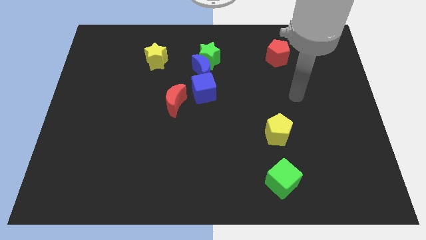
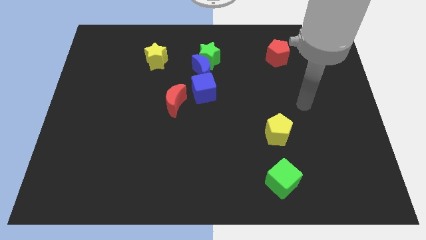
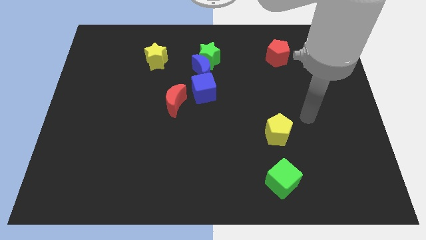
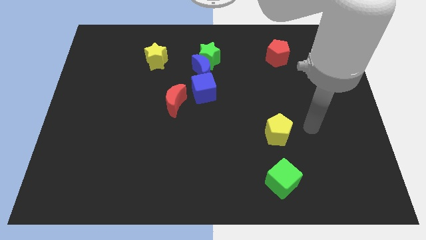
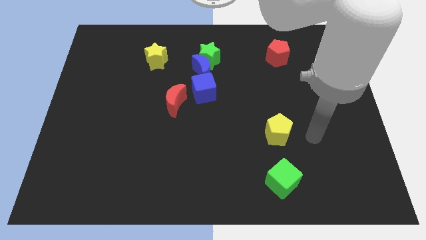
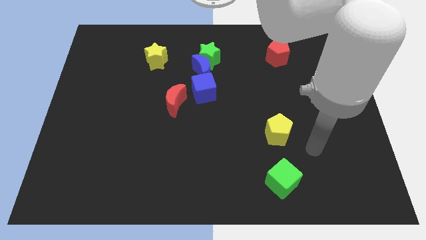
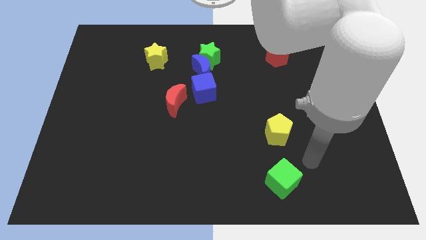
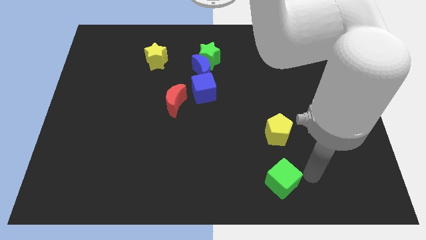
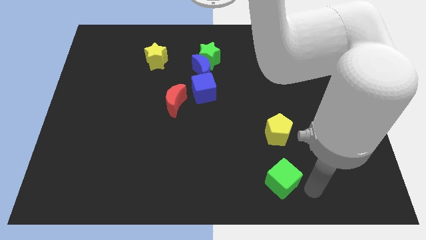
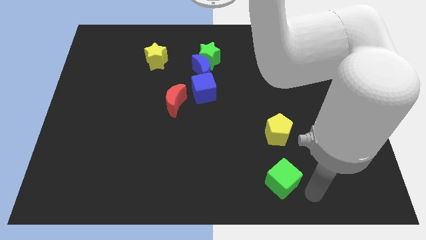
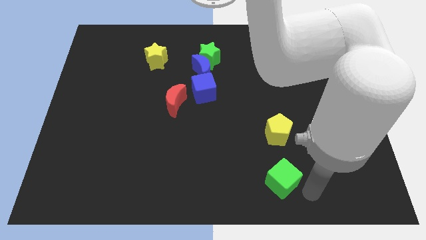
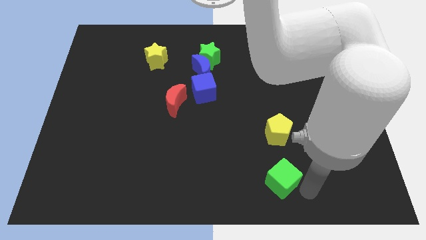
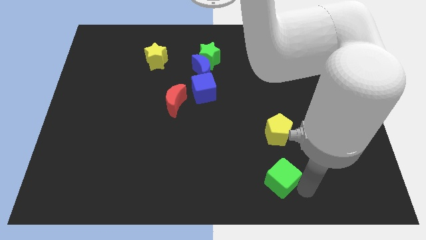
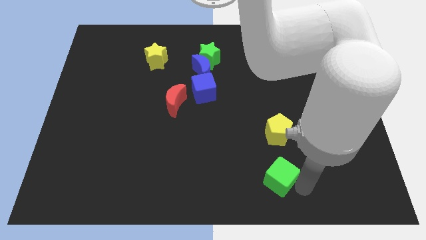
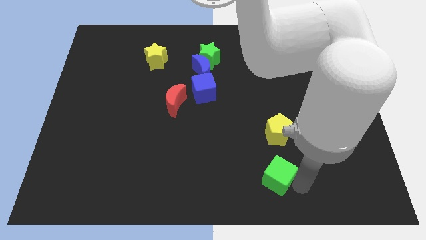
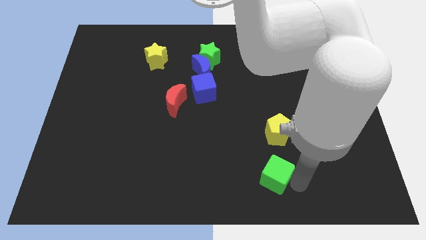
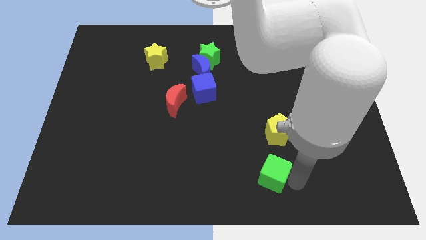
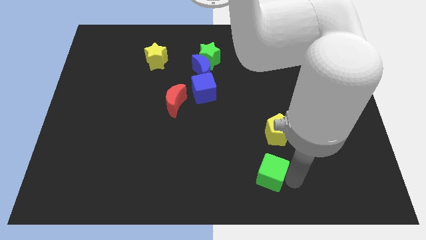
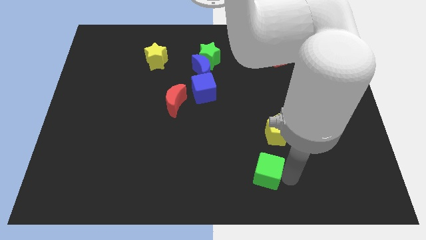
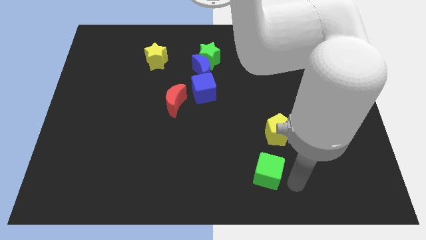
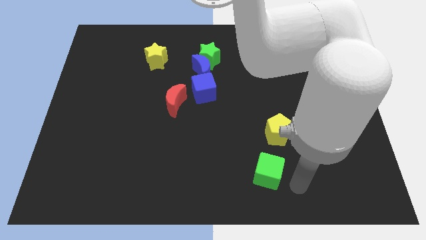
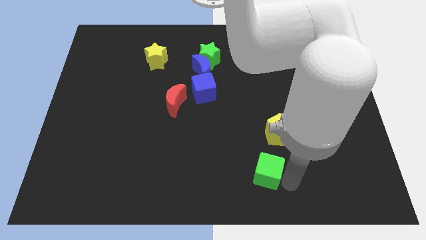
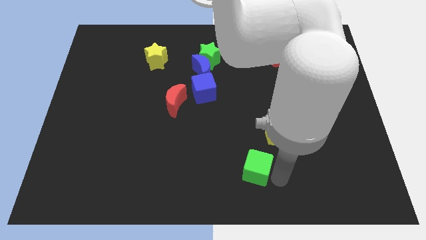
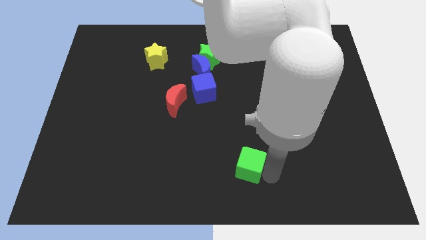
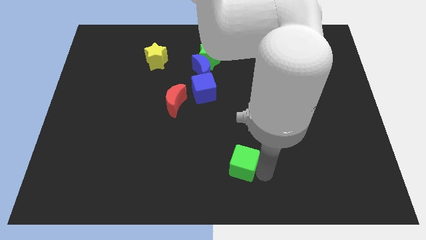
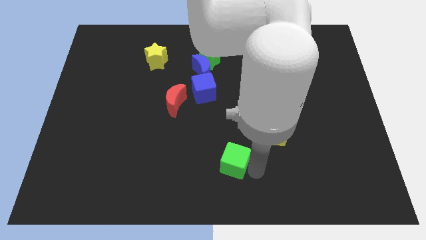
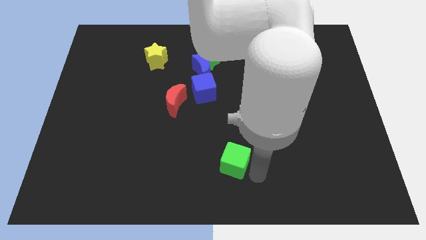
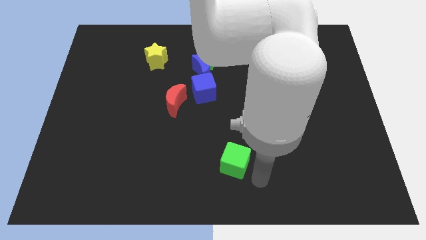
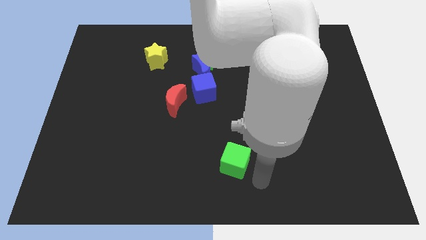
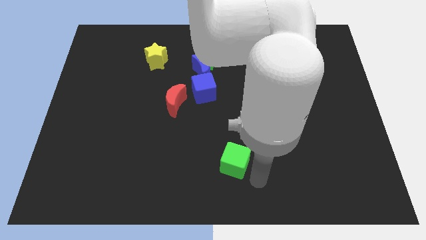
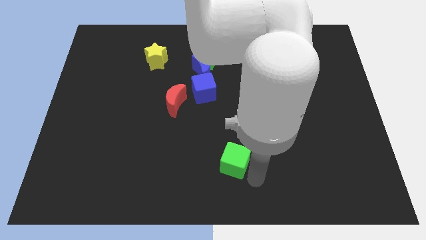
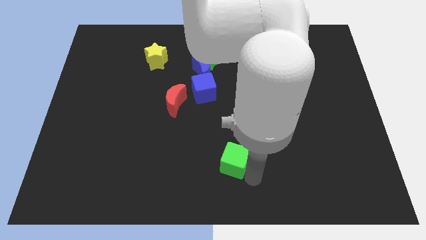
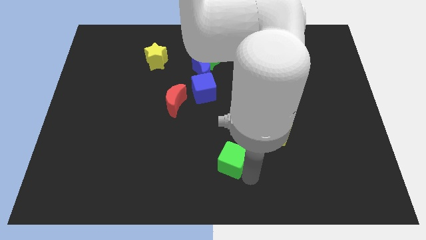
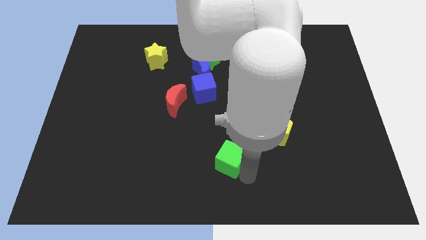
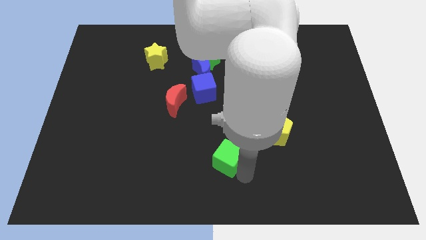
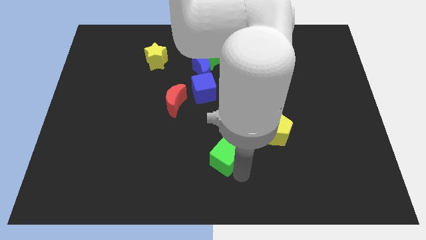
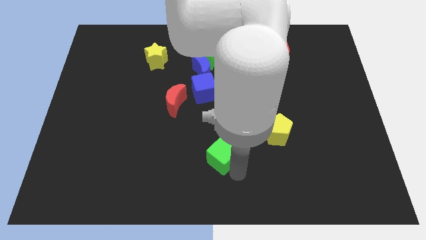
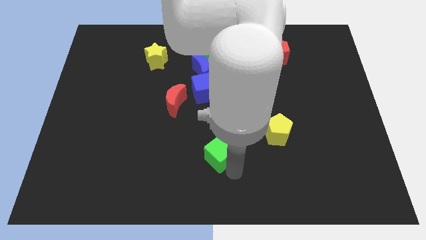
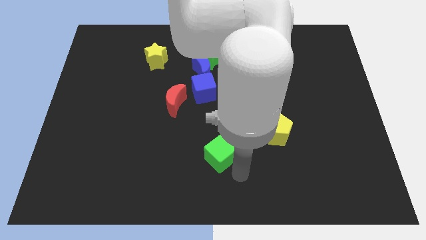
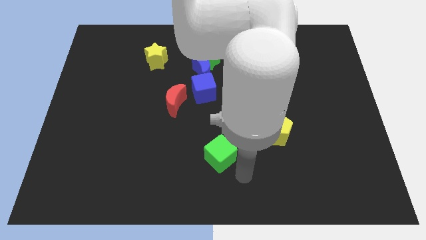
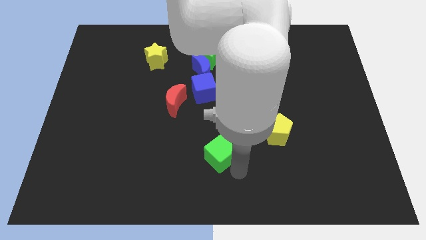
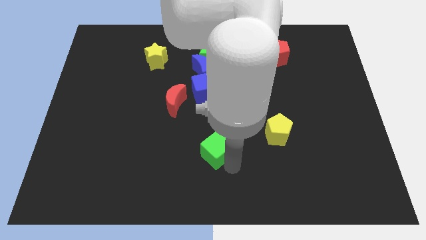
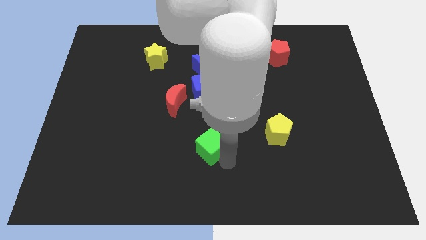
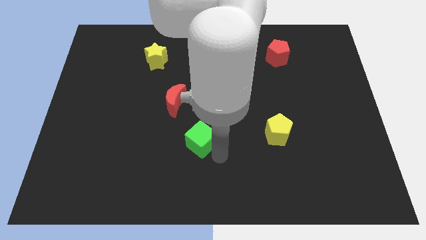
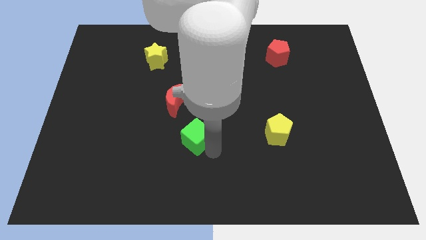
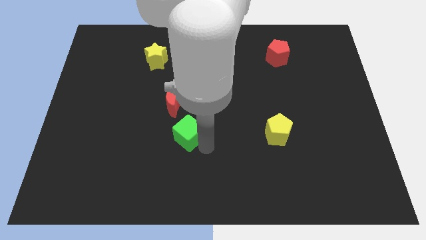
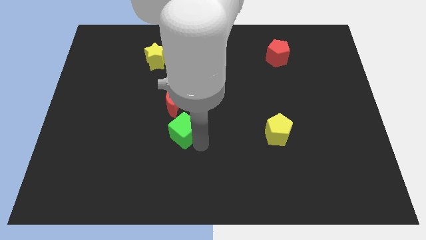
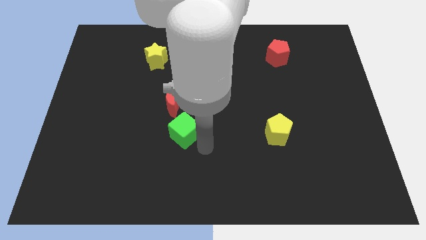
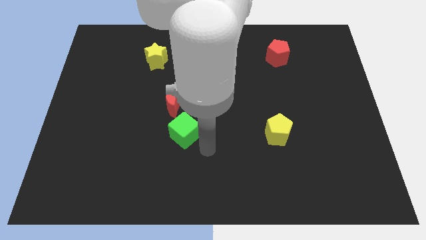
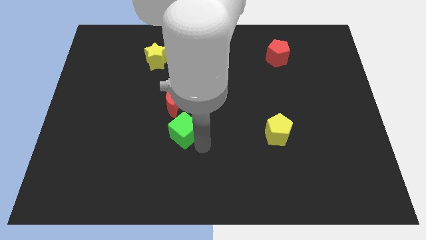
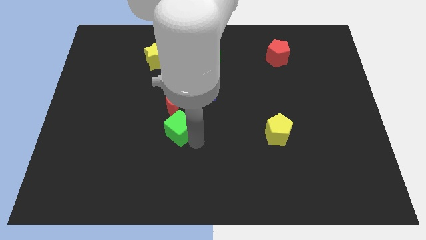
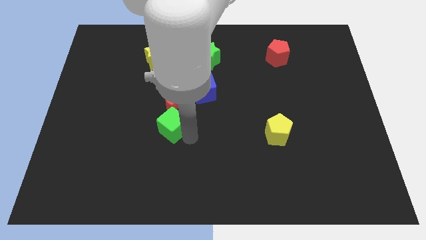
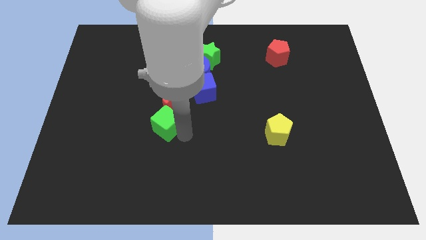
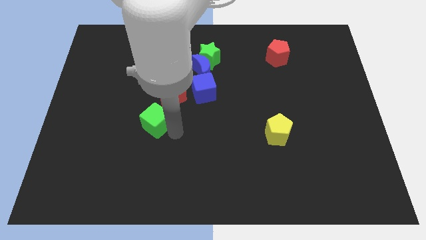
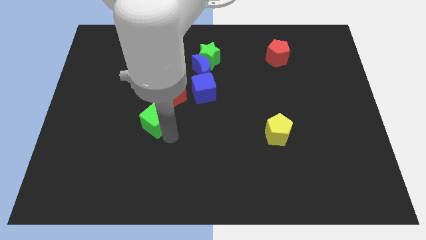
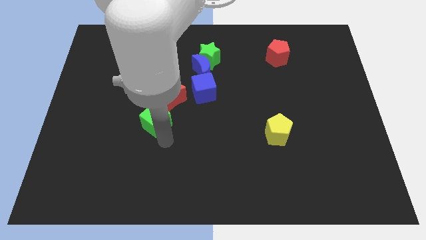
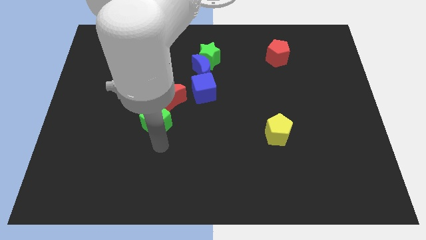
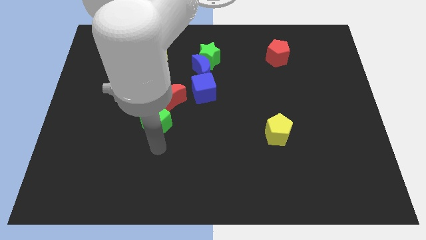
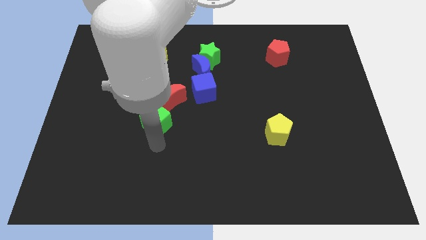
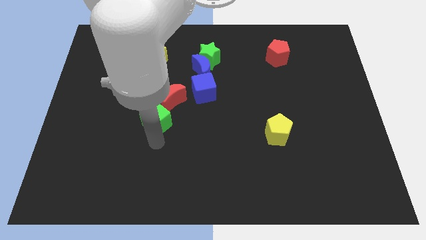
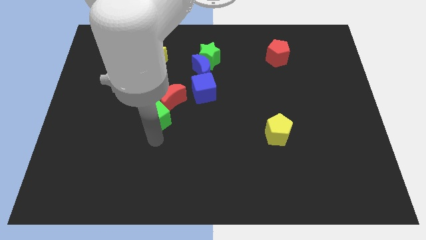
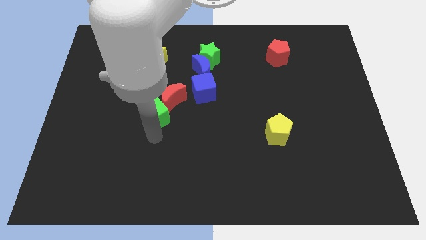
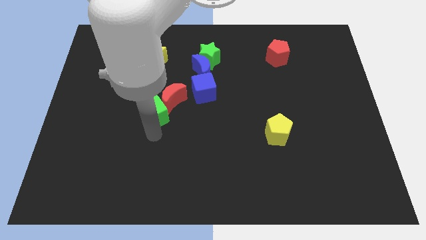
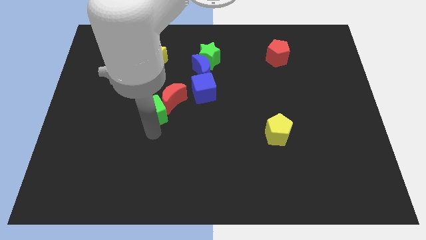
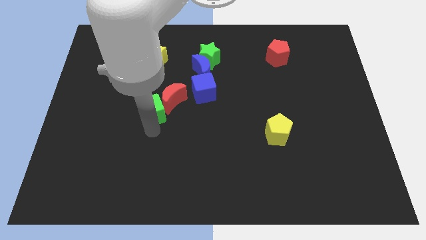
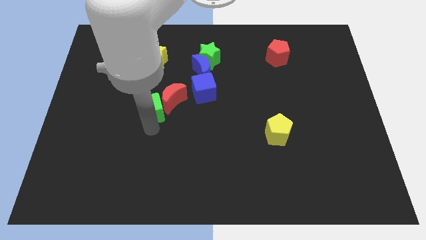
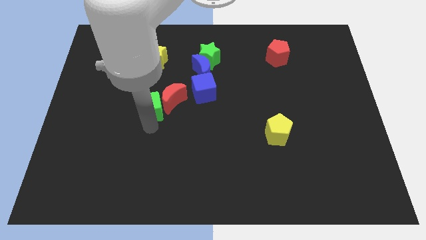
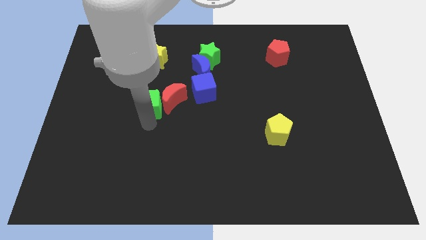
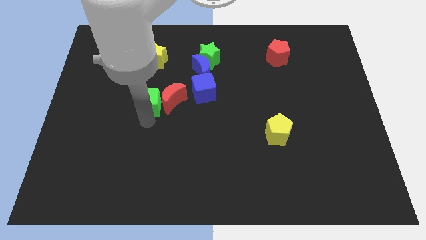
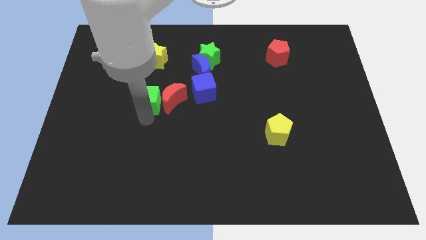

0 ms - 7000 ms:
move the green cube to the top left of the red moon

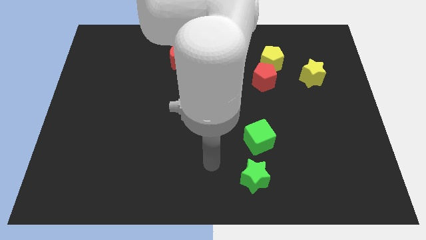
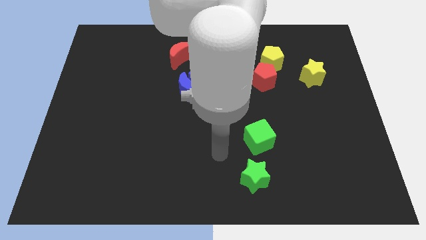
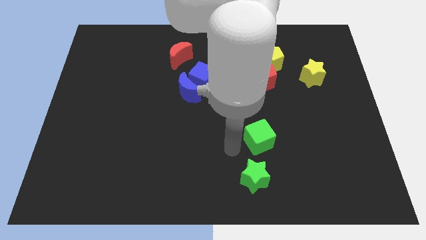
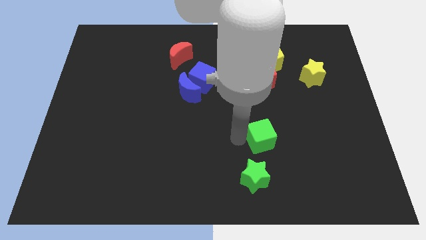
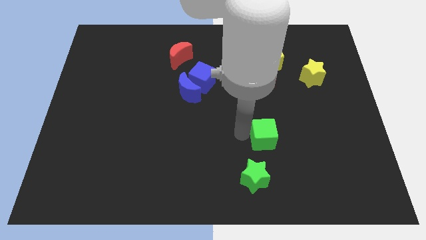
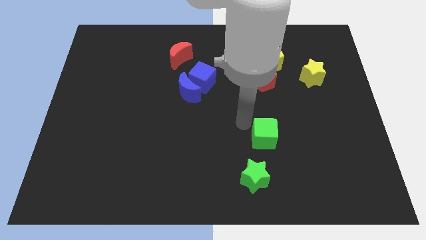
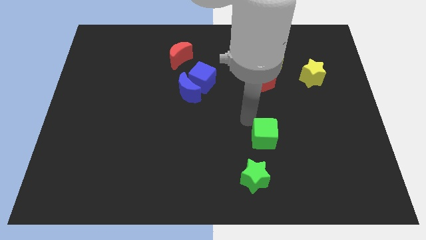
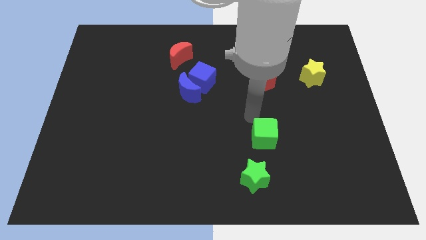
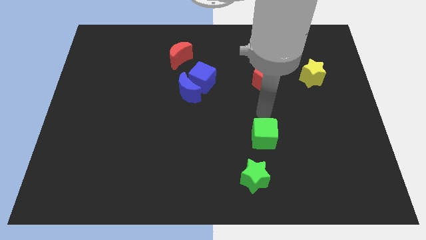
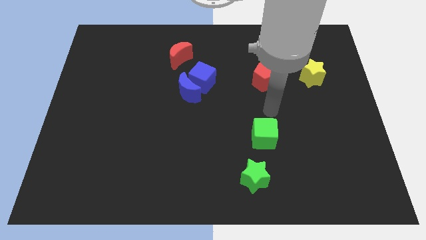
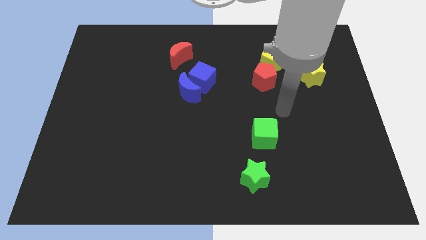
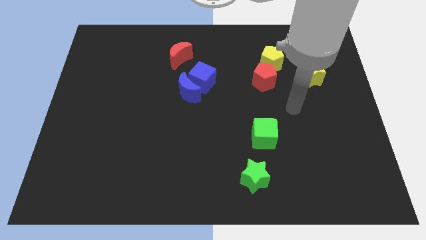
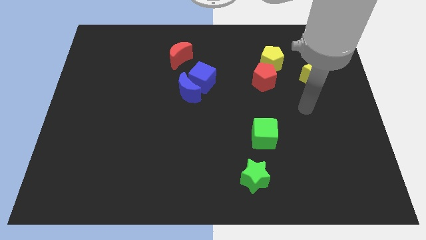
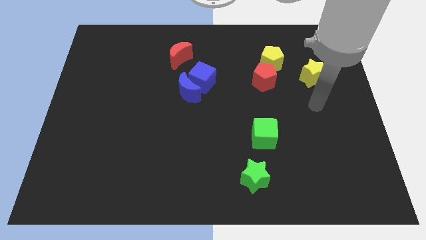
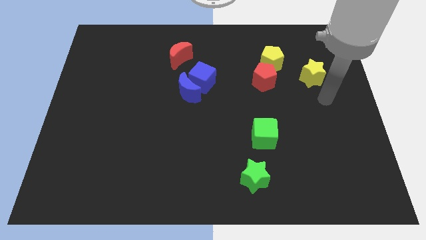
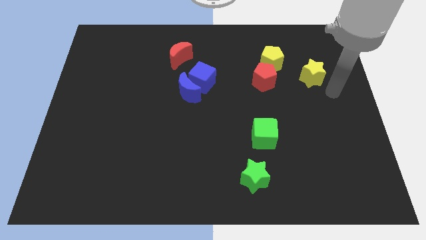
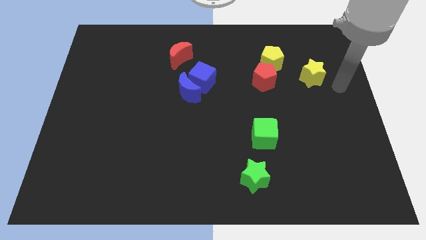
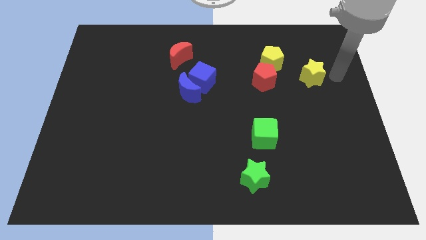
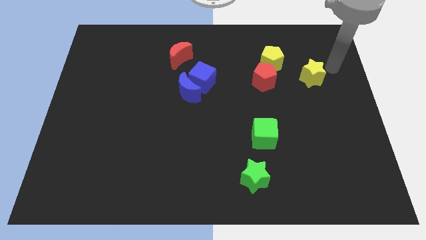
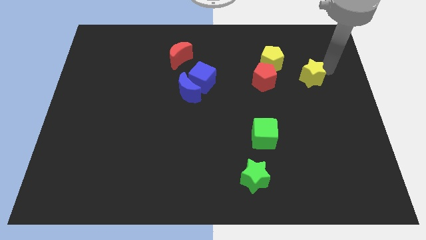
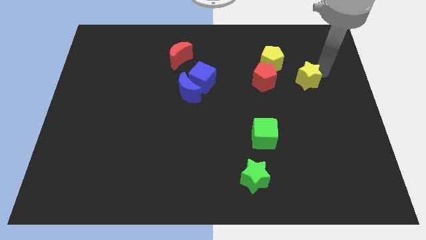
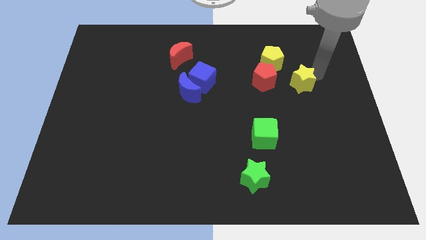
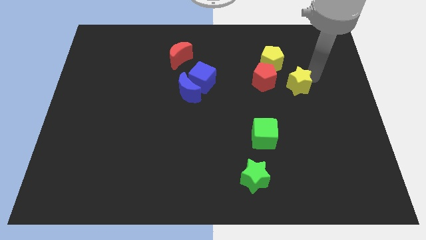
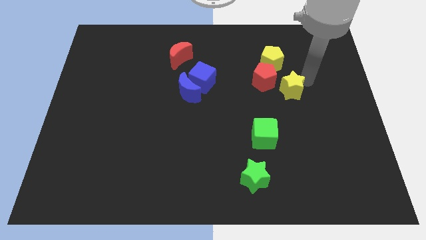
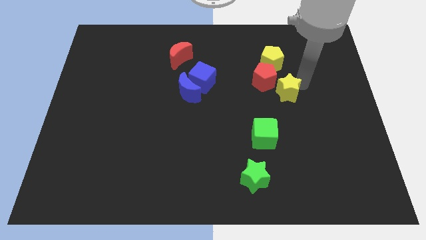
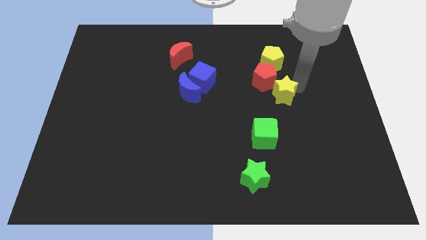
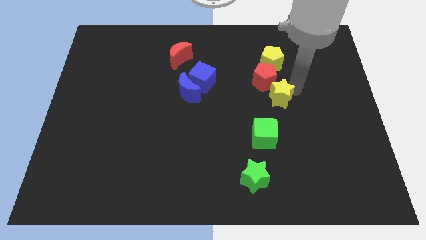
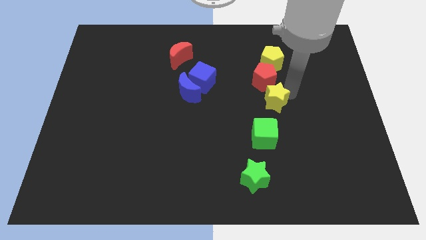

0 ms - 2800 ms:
put the yellow star above the green cube
